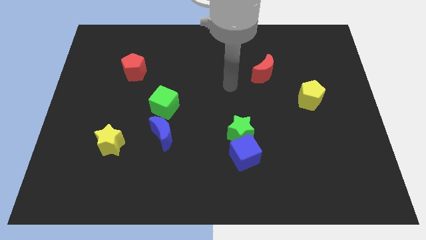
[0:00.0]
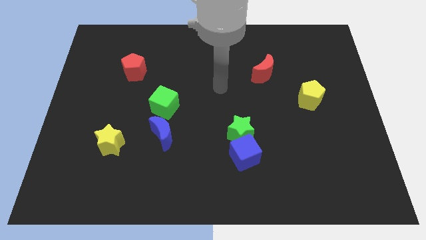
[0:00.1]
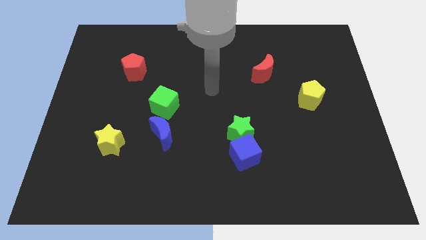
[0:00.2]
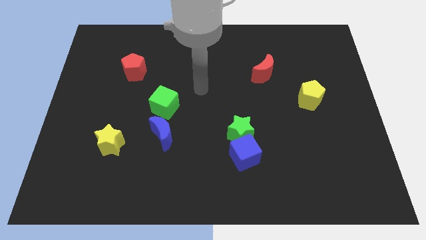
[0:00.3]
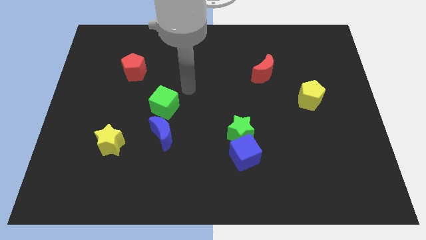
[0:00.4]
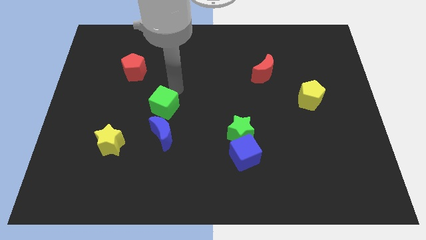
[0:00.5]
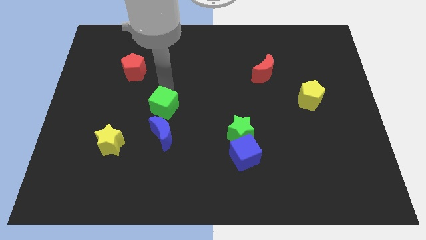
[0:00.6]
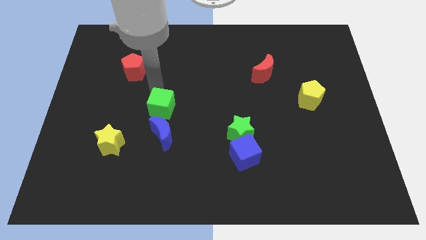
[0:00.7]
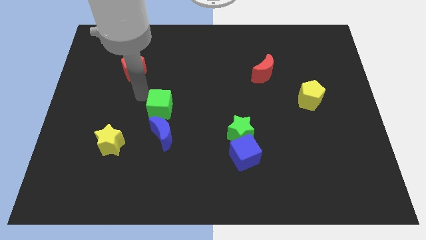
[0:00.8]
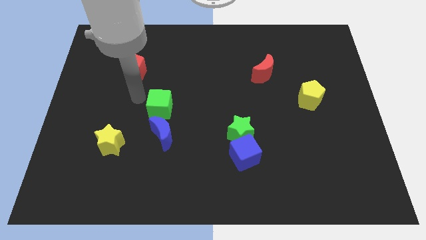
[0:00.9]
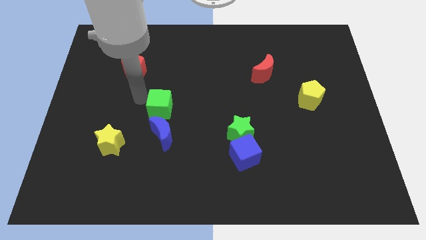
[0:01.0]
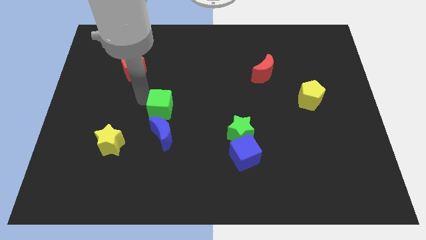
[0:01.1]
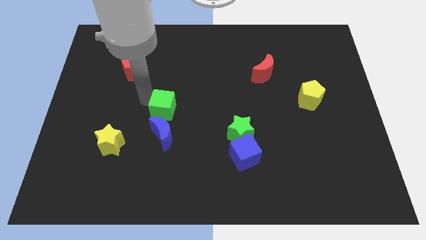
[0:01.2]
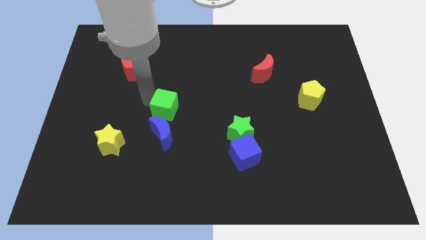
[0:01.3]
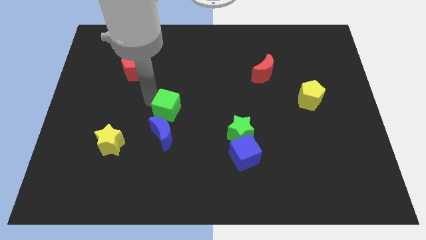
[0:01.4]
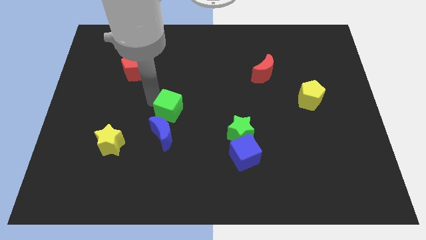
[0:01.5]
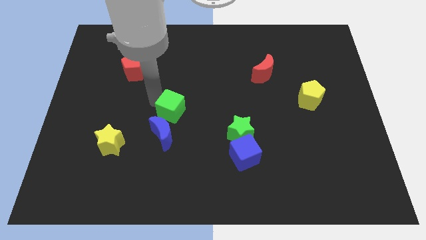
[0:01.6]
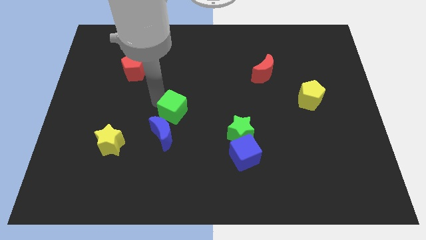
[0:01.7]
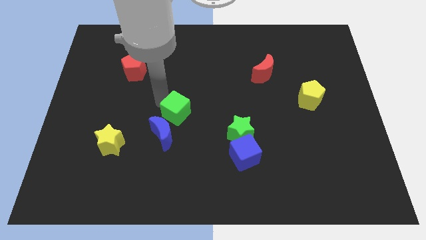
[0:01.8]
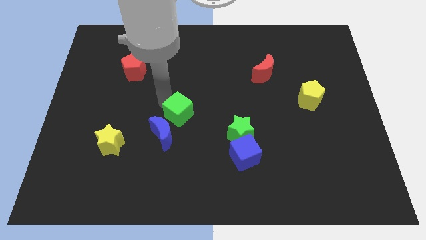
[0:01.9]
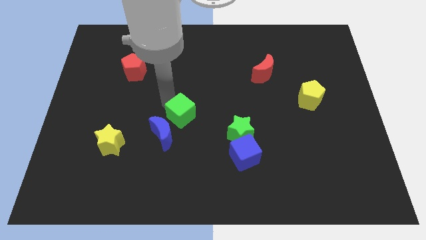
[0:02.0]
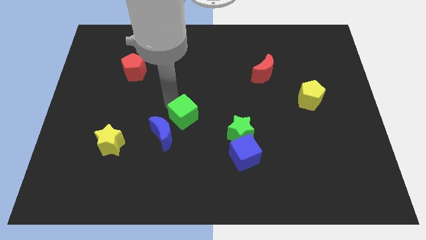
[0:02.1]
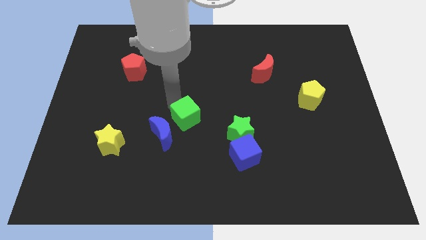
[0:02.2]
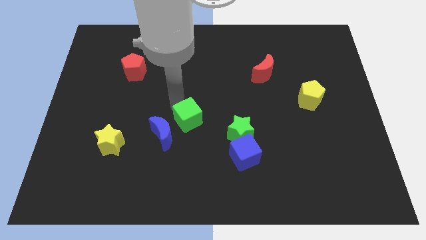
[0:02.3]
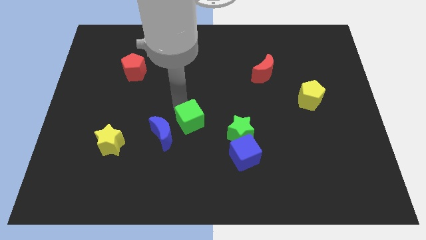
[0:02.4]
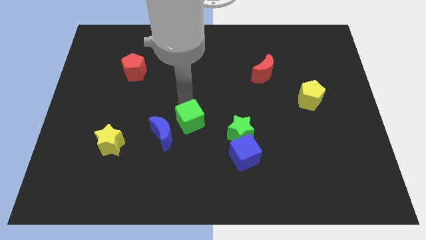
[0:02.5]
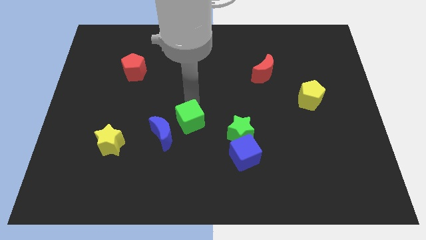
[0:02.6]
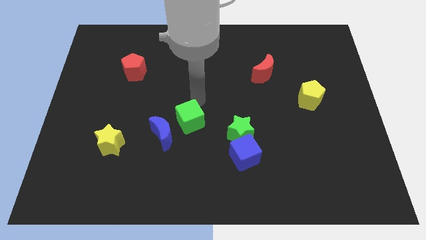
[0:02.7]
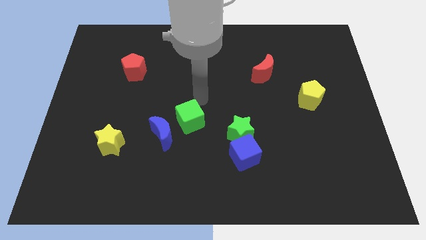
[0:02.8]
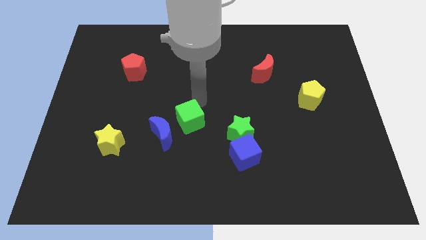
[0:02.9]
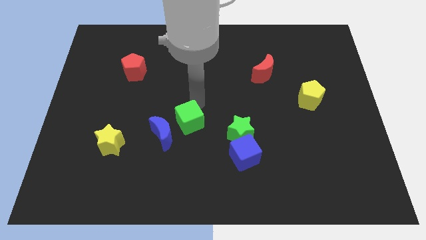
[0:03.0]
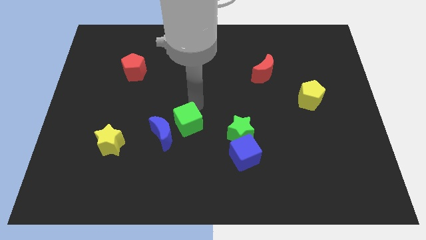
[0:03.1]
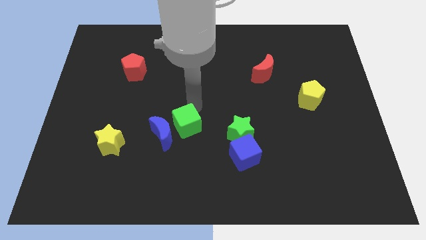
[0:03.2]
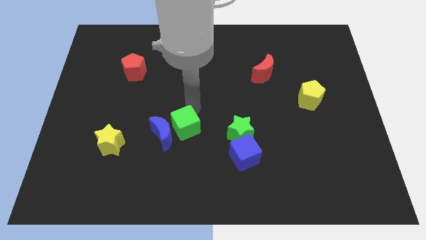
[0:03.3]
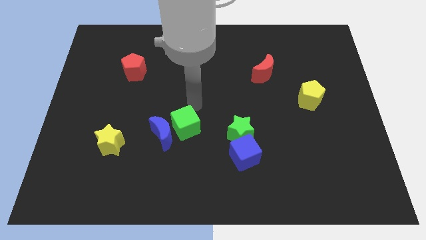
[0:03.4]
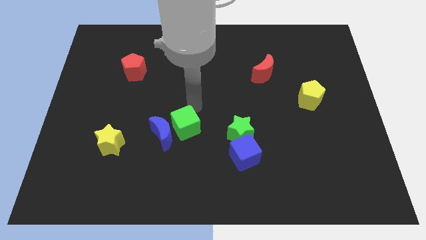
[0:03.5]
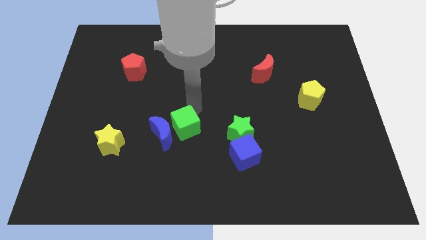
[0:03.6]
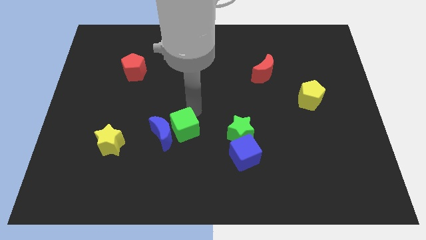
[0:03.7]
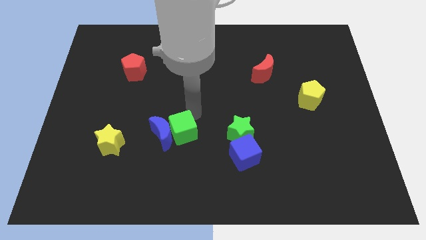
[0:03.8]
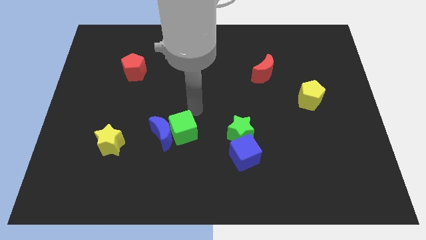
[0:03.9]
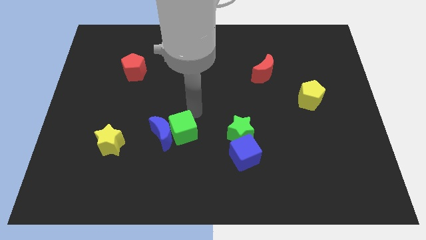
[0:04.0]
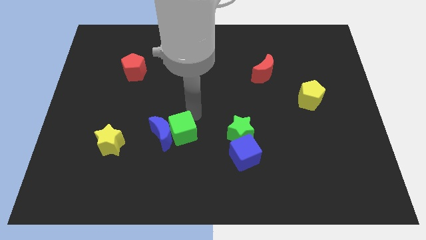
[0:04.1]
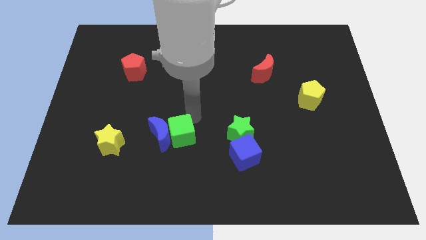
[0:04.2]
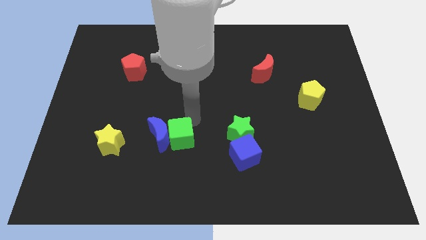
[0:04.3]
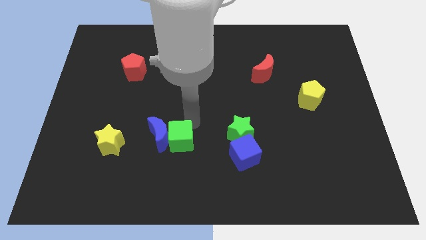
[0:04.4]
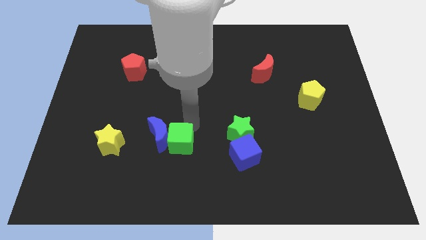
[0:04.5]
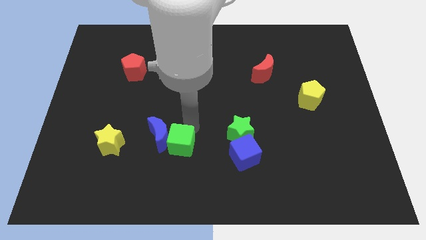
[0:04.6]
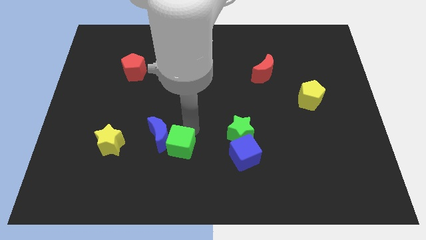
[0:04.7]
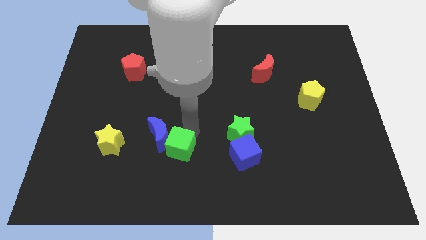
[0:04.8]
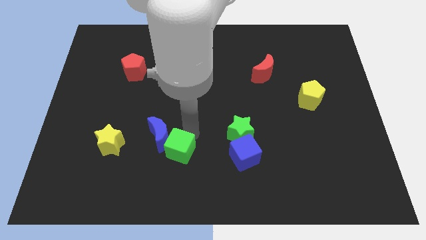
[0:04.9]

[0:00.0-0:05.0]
put the green cube to the bottom side of the blue moon

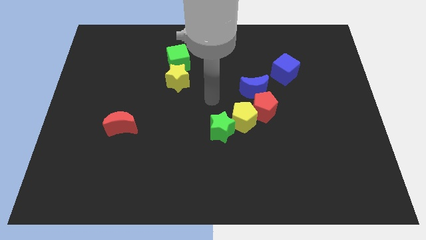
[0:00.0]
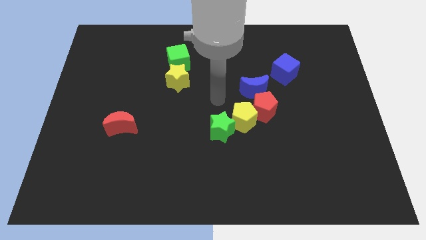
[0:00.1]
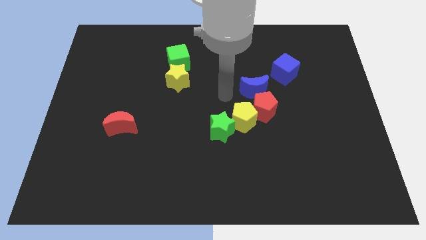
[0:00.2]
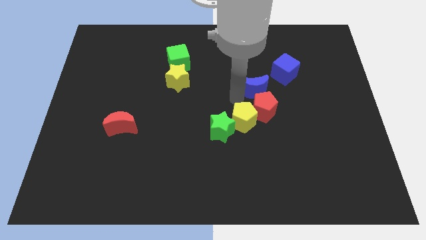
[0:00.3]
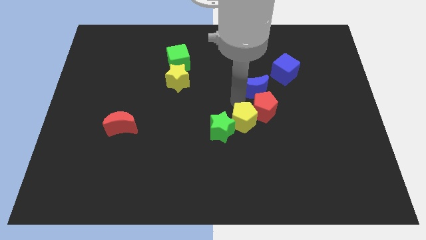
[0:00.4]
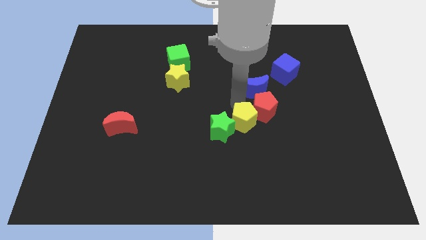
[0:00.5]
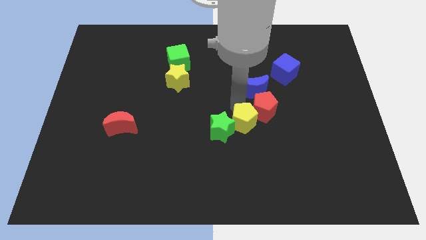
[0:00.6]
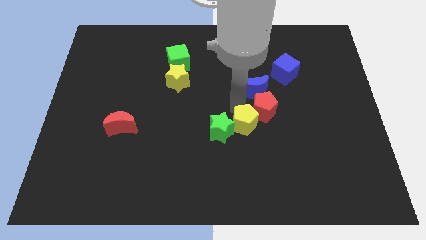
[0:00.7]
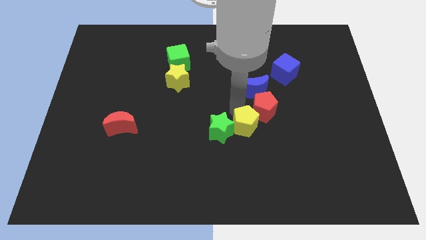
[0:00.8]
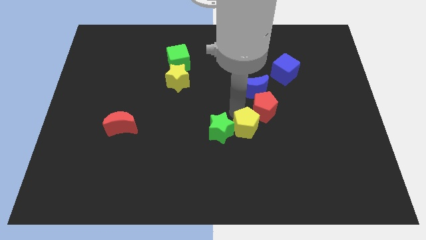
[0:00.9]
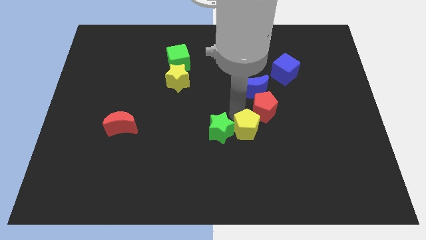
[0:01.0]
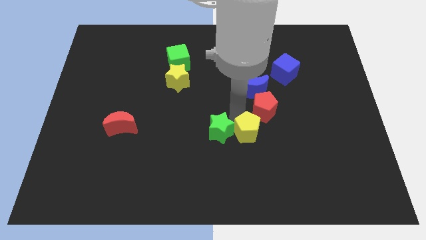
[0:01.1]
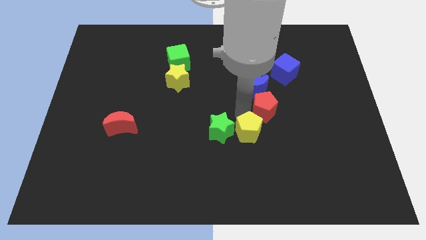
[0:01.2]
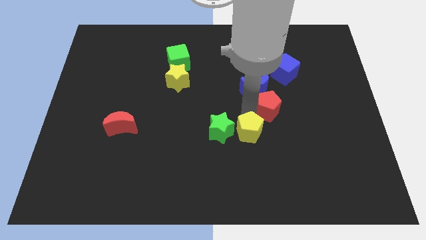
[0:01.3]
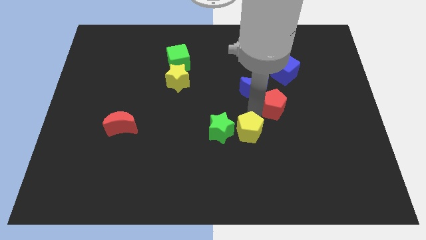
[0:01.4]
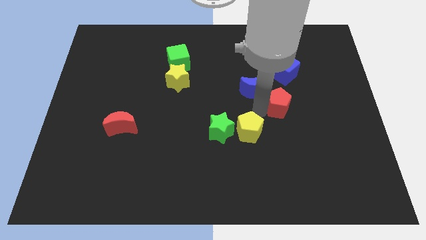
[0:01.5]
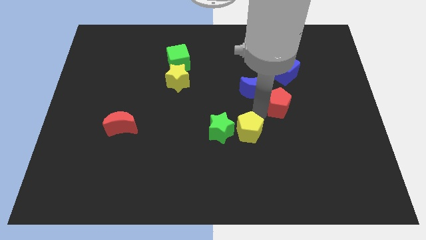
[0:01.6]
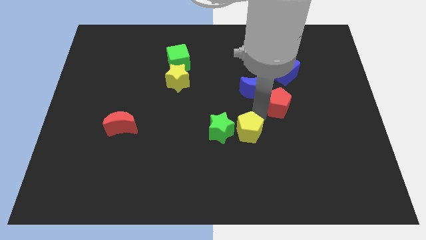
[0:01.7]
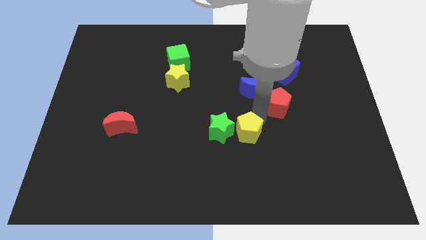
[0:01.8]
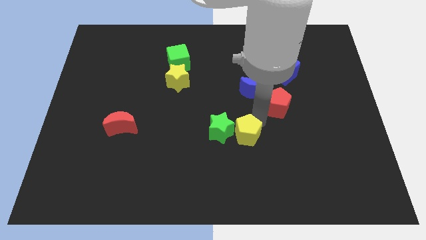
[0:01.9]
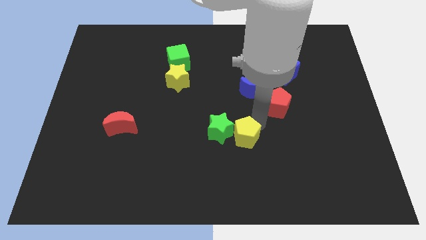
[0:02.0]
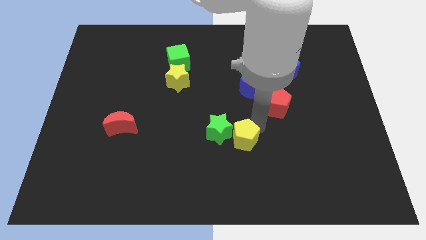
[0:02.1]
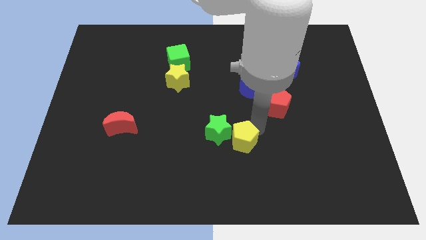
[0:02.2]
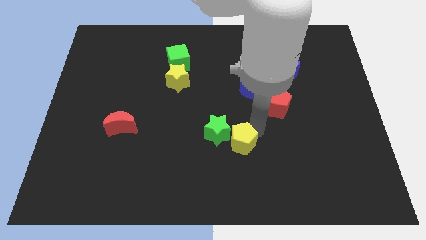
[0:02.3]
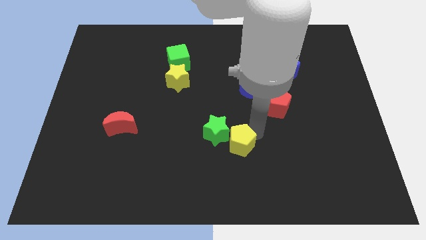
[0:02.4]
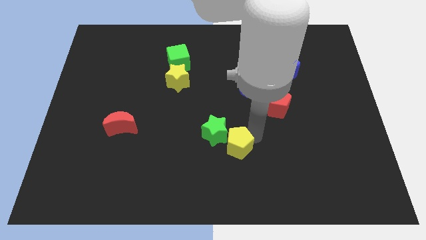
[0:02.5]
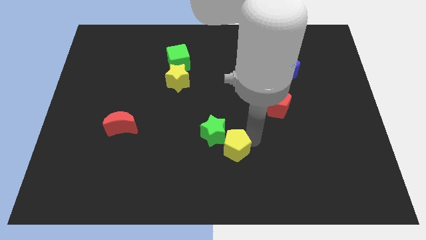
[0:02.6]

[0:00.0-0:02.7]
push the yellow pentagon below the green star
